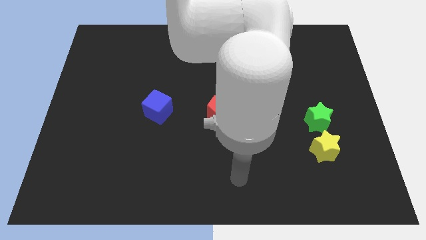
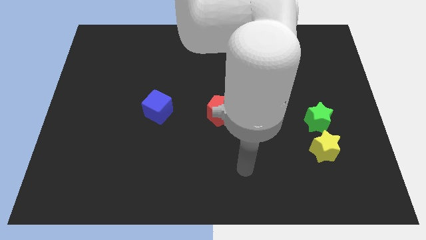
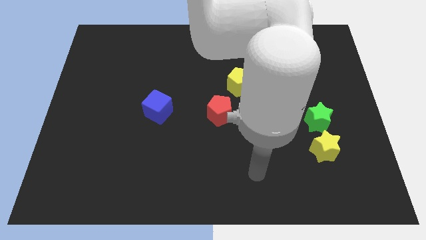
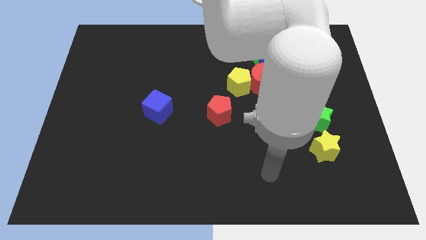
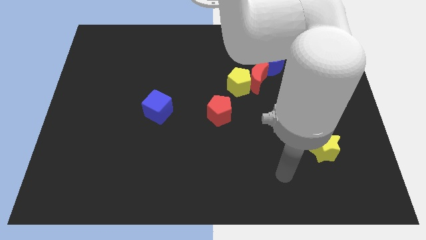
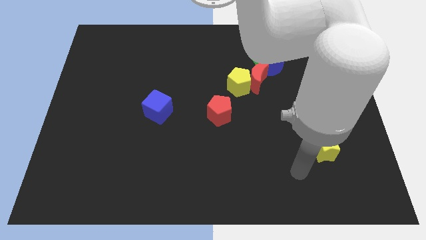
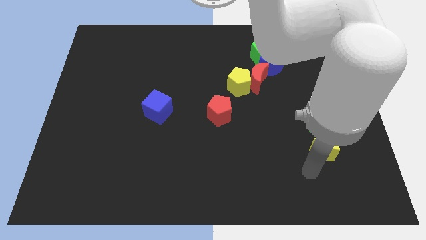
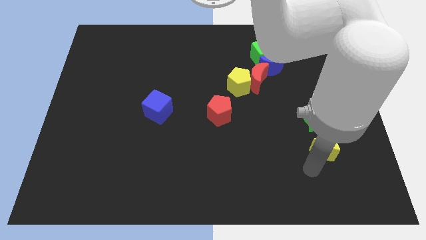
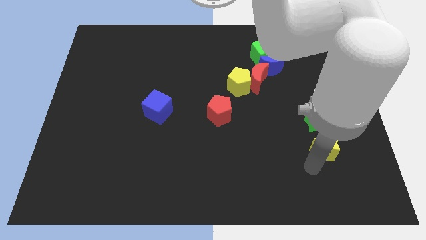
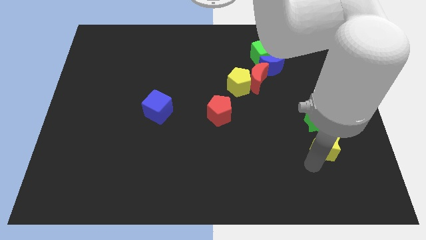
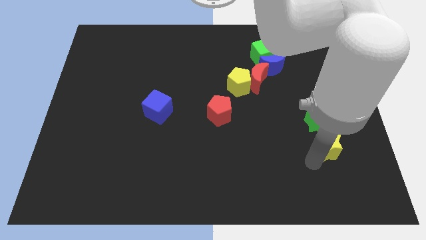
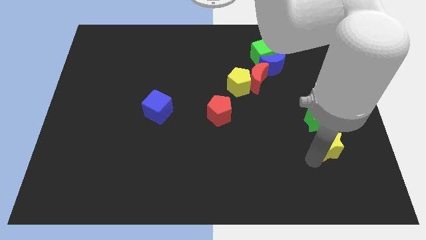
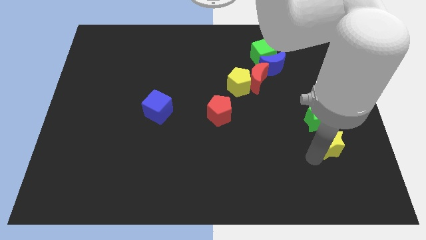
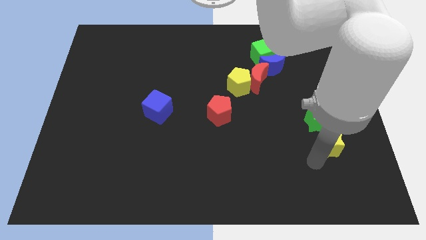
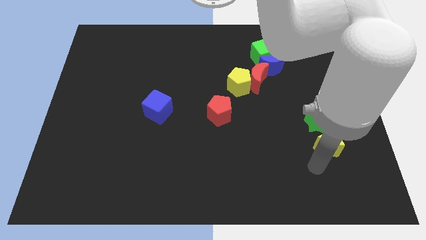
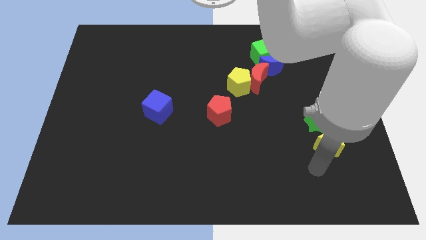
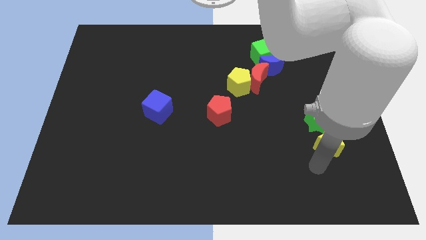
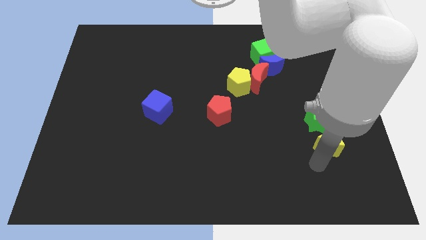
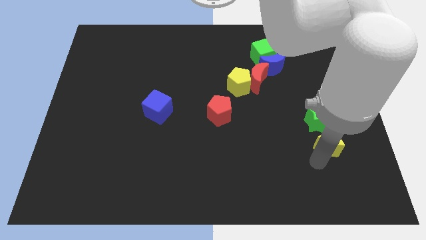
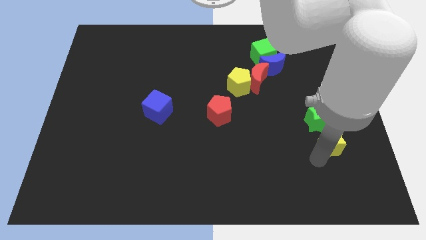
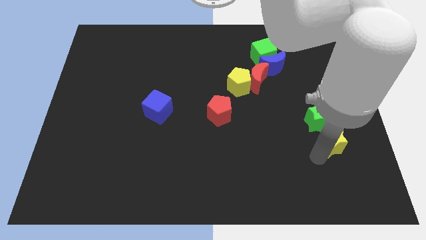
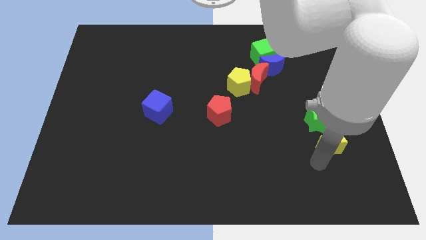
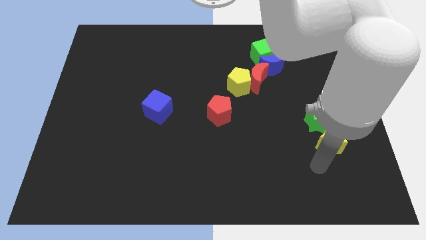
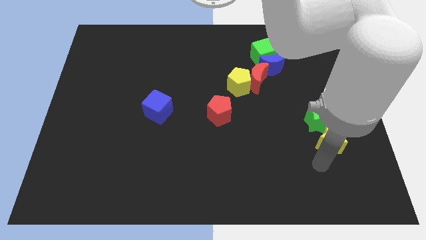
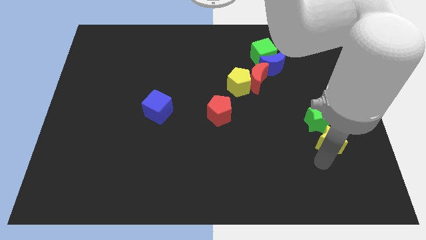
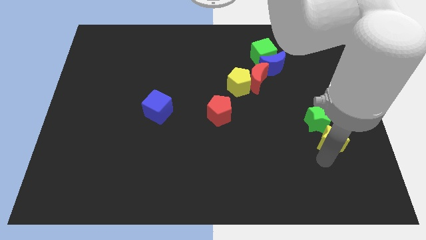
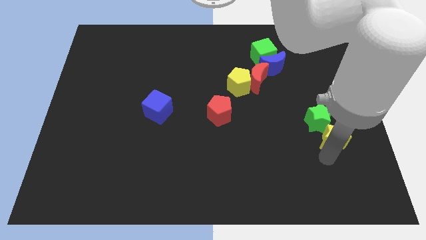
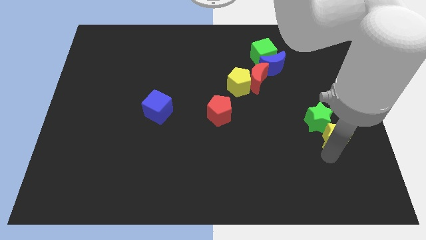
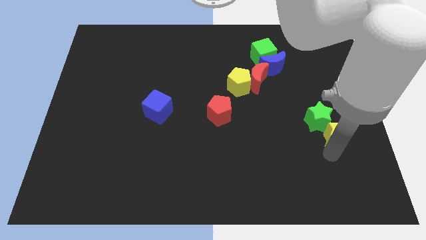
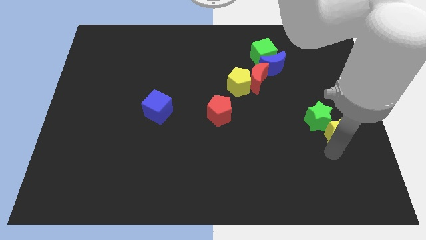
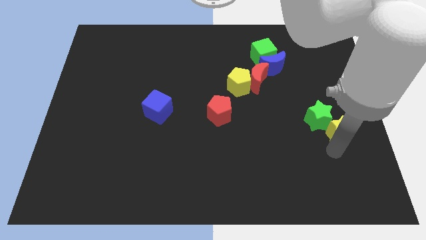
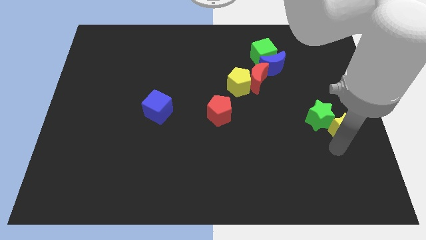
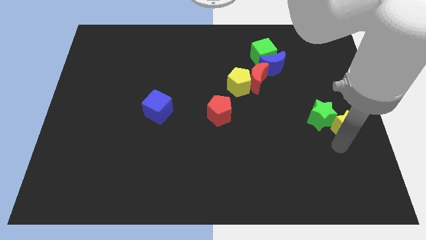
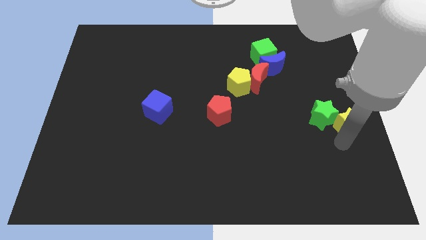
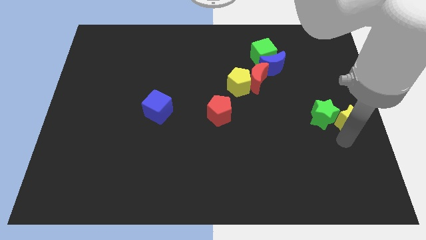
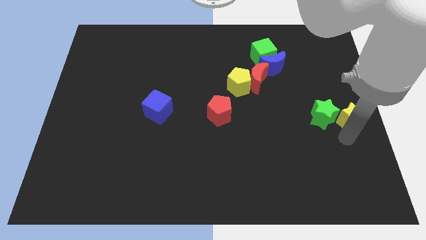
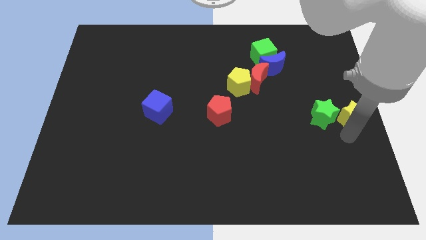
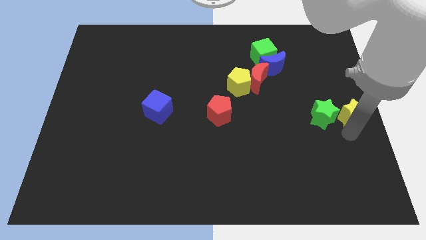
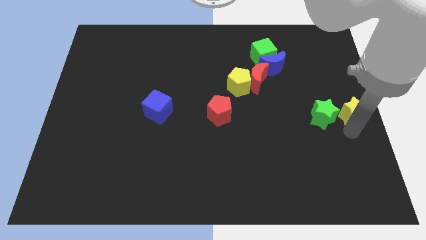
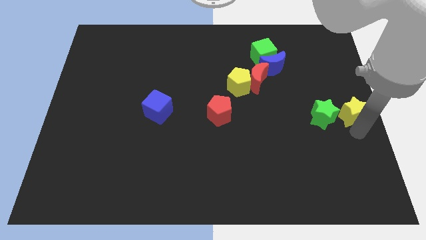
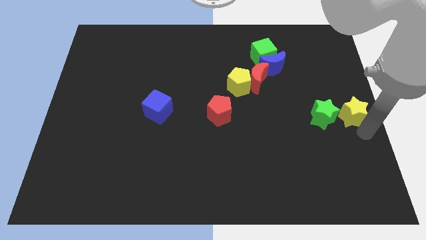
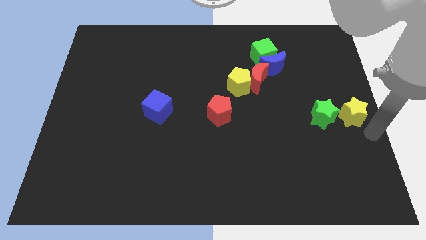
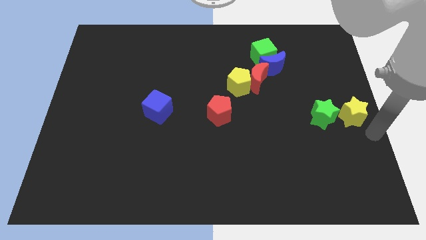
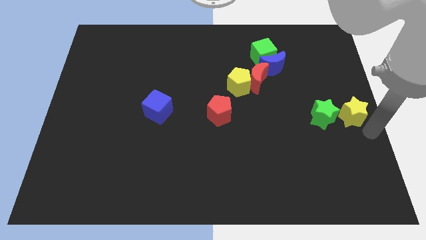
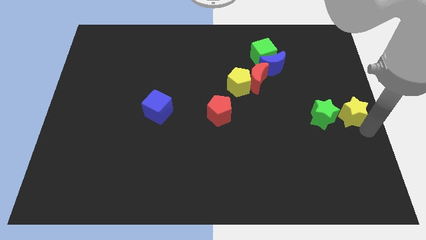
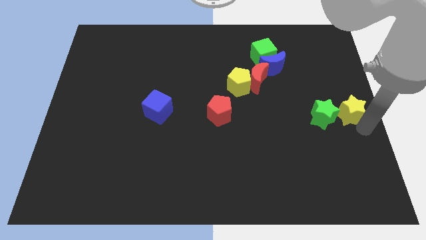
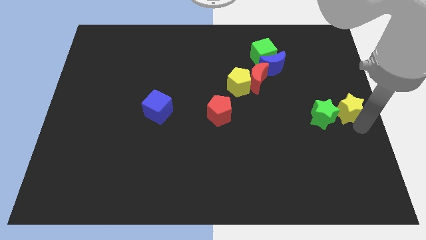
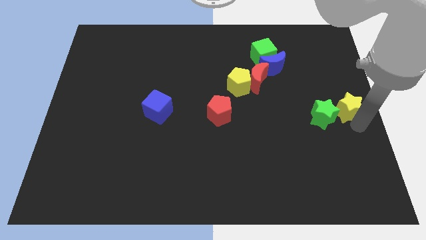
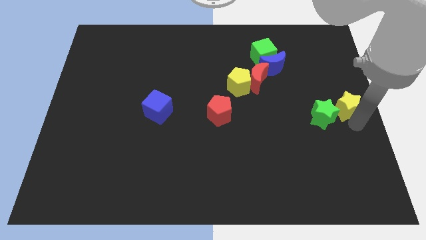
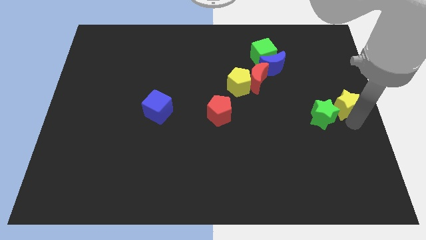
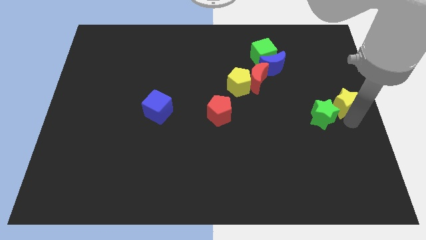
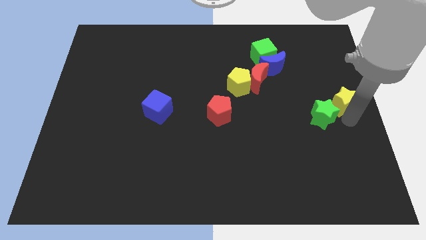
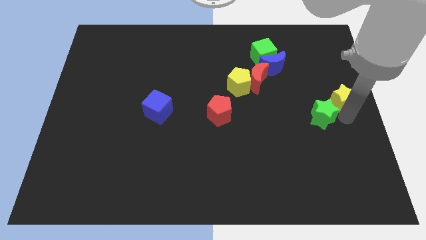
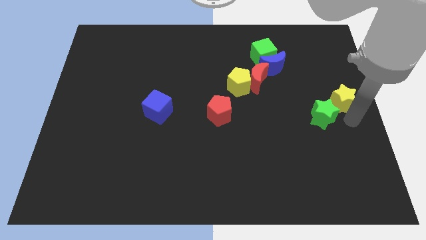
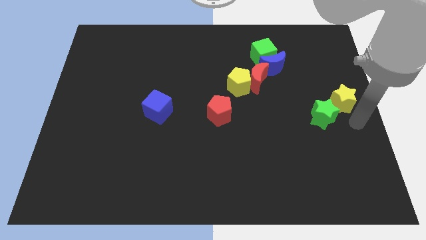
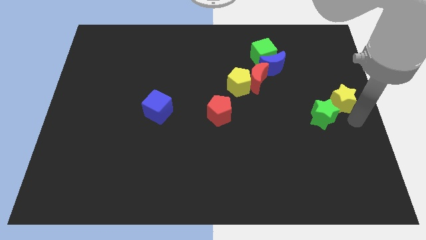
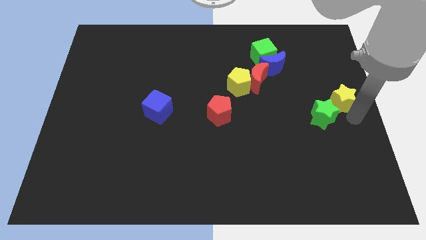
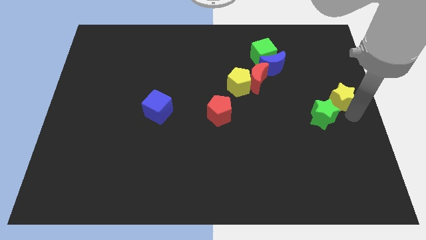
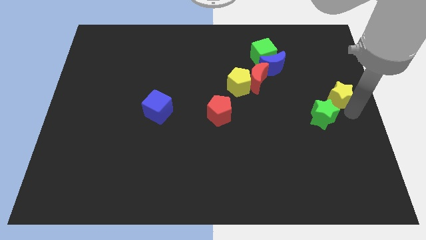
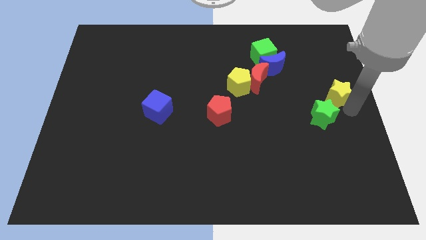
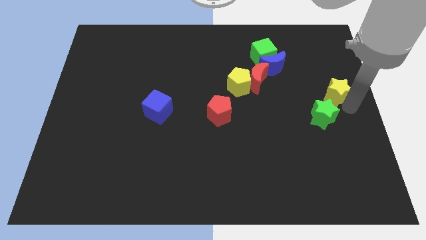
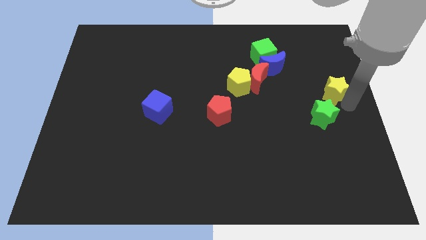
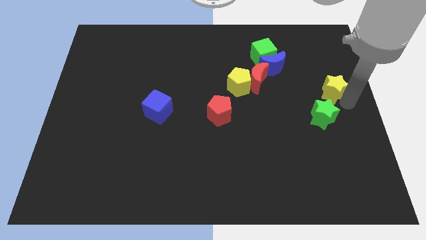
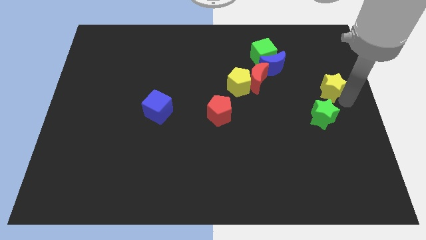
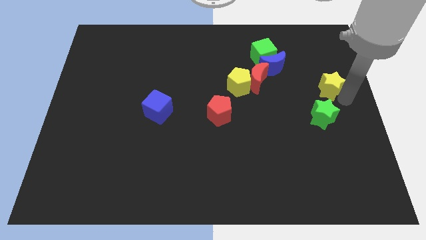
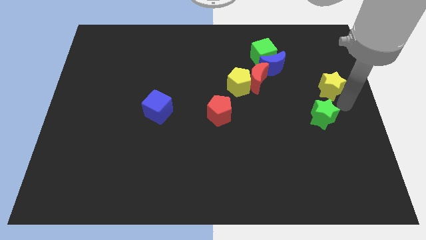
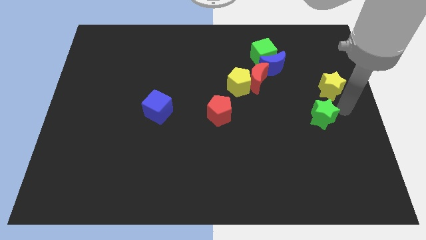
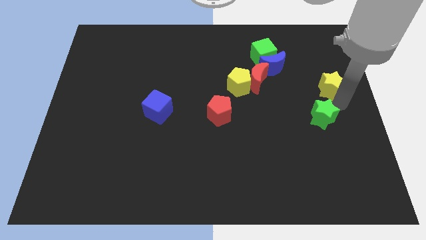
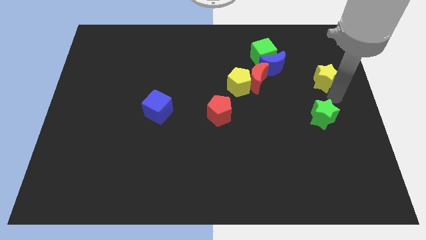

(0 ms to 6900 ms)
slide the yellow star to the right of the blue moon
